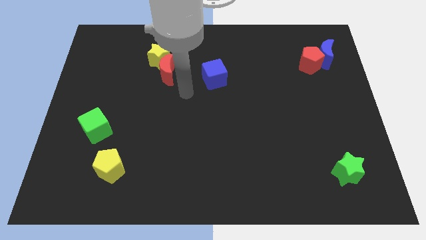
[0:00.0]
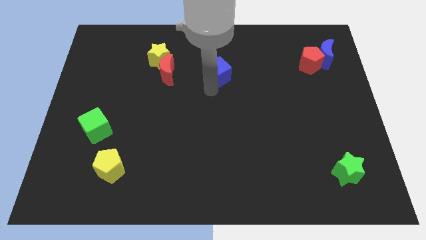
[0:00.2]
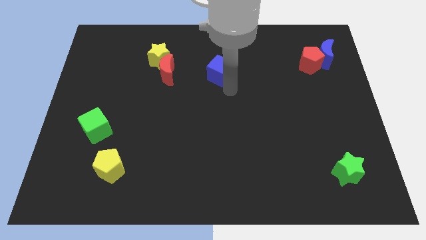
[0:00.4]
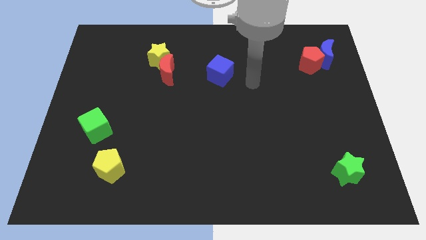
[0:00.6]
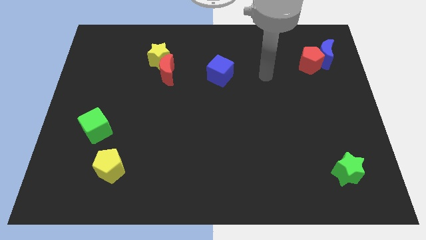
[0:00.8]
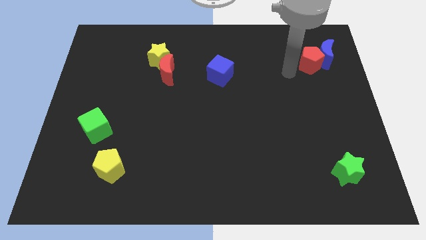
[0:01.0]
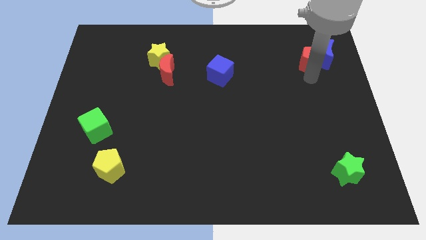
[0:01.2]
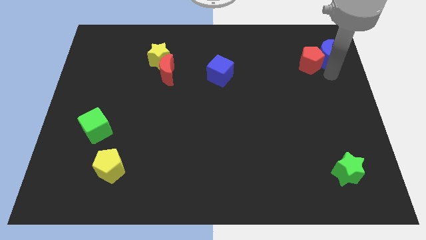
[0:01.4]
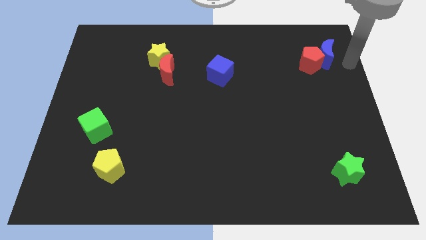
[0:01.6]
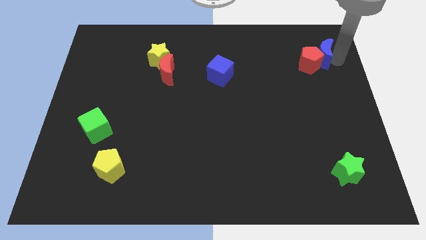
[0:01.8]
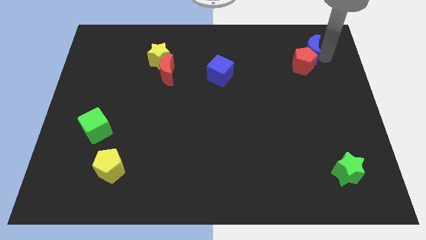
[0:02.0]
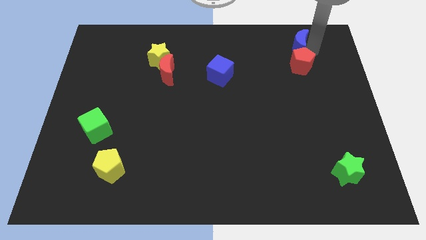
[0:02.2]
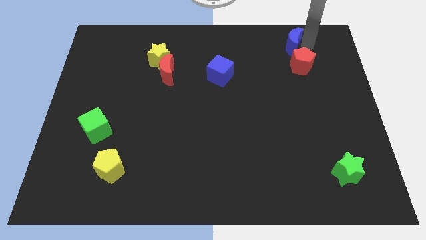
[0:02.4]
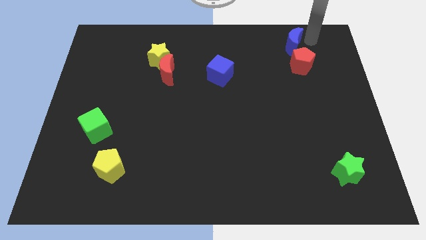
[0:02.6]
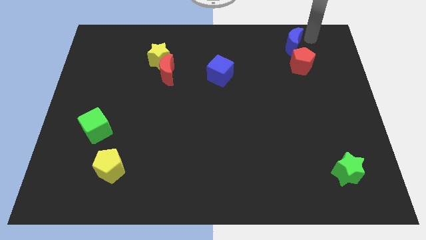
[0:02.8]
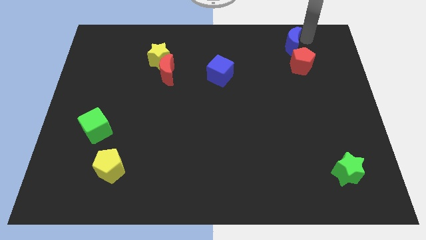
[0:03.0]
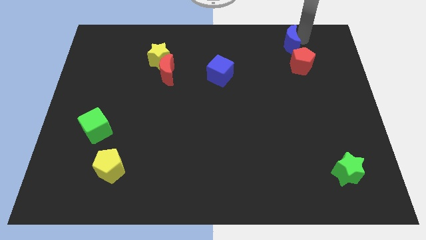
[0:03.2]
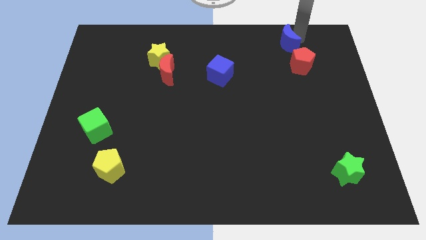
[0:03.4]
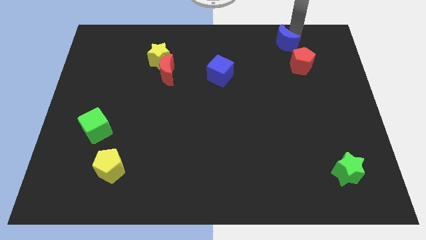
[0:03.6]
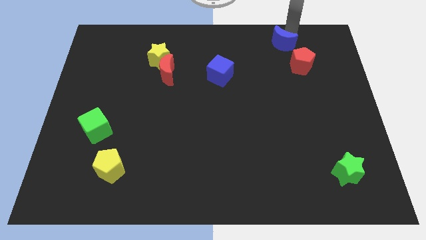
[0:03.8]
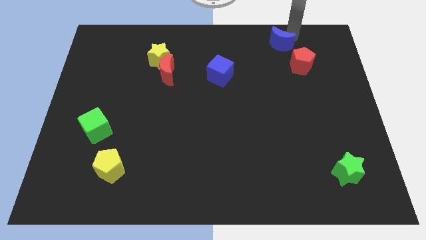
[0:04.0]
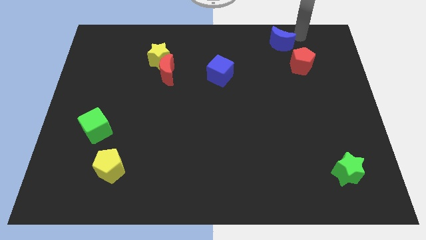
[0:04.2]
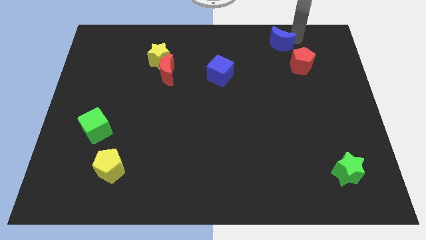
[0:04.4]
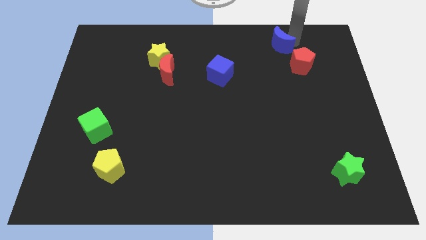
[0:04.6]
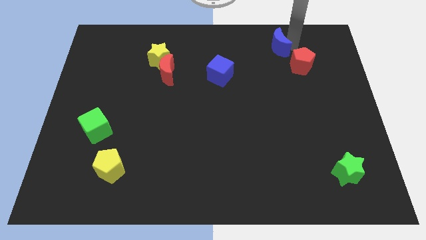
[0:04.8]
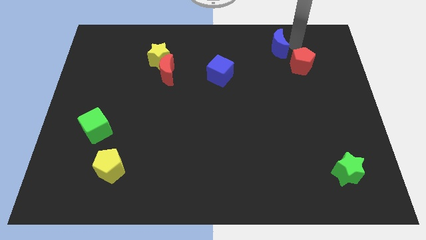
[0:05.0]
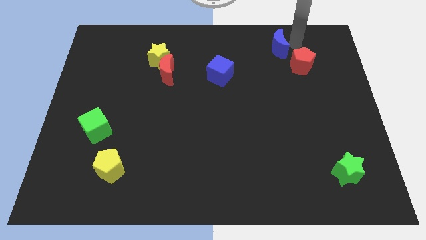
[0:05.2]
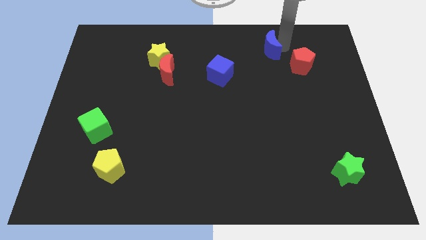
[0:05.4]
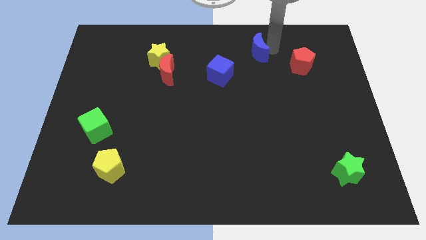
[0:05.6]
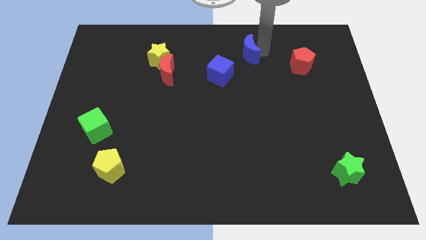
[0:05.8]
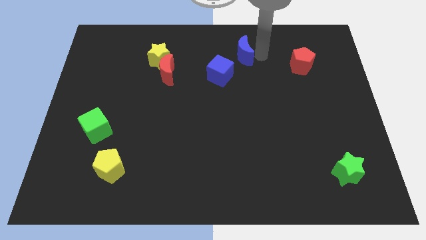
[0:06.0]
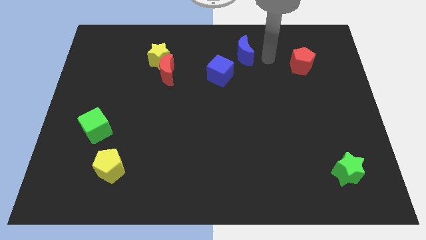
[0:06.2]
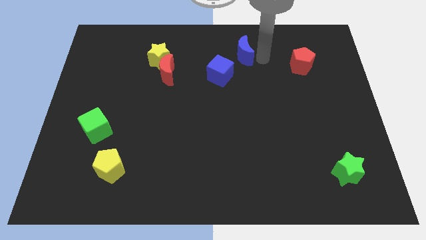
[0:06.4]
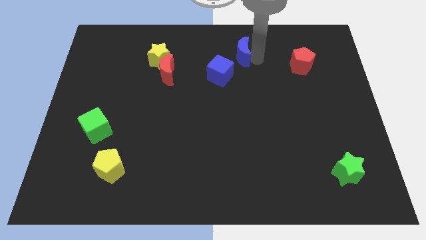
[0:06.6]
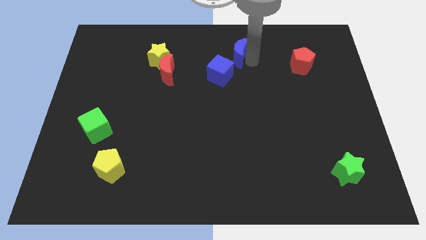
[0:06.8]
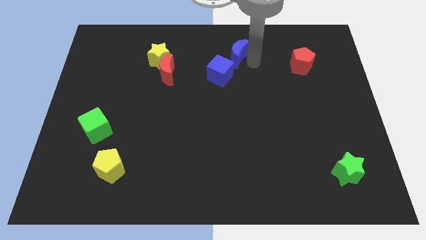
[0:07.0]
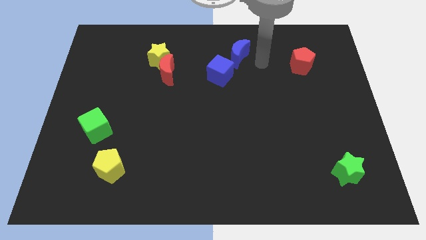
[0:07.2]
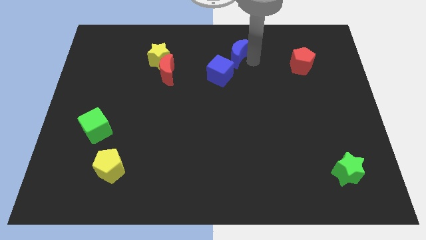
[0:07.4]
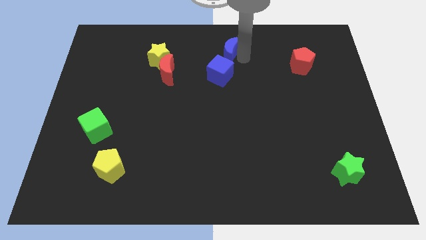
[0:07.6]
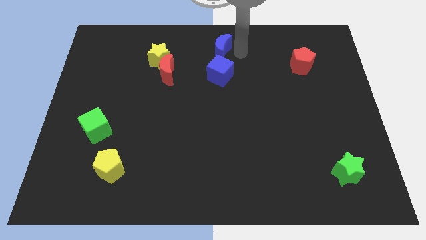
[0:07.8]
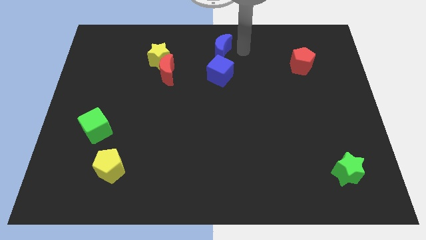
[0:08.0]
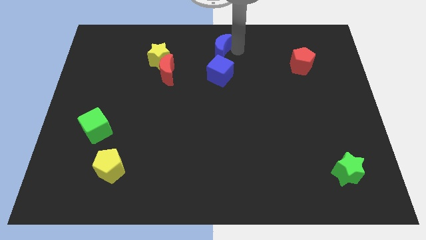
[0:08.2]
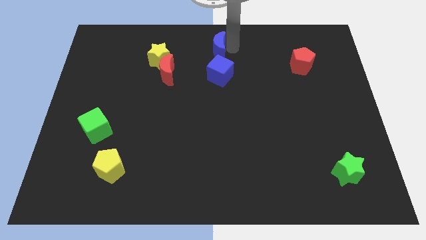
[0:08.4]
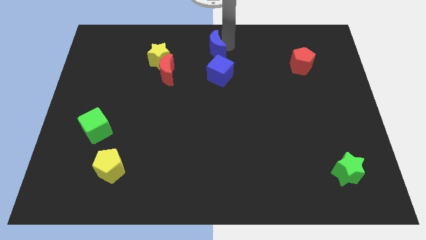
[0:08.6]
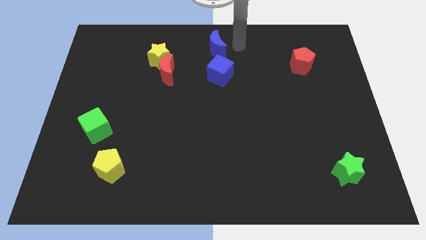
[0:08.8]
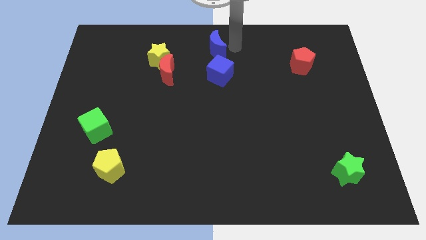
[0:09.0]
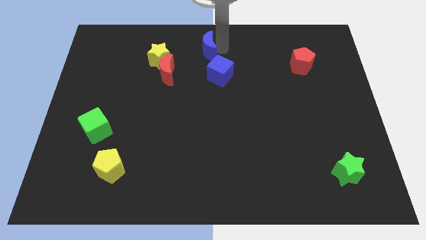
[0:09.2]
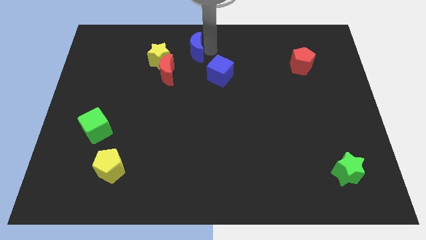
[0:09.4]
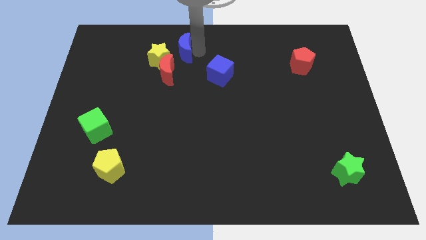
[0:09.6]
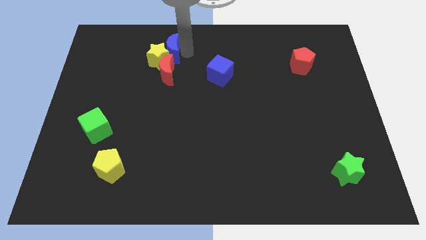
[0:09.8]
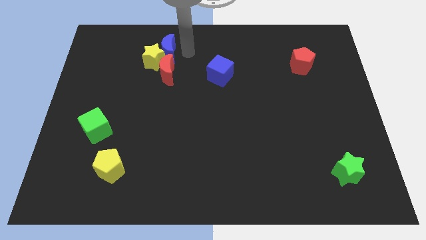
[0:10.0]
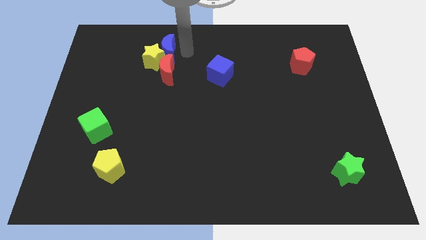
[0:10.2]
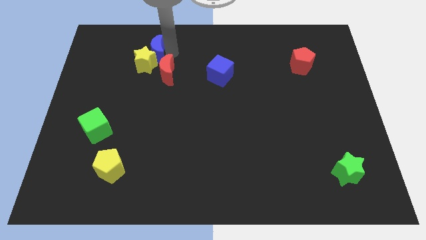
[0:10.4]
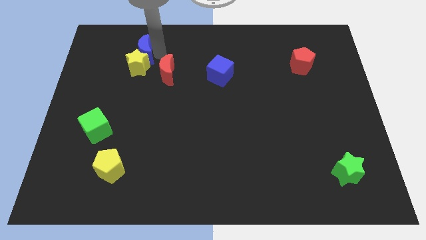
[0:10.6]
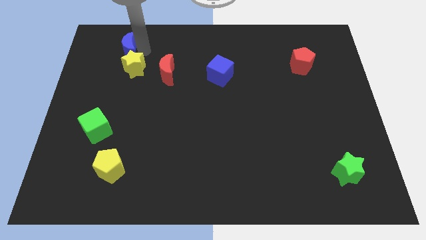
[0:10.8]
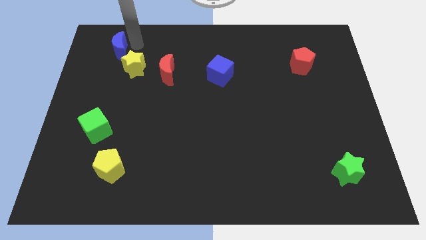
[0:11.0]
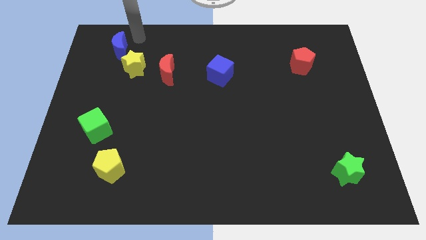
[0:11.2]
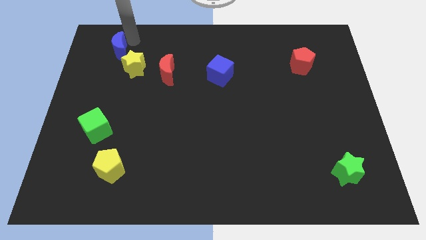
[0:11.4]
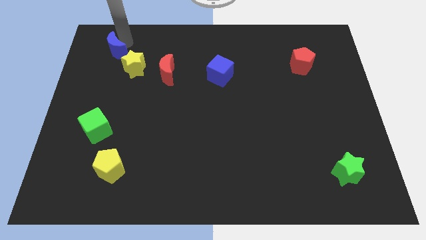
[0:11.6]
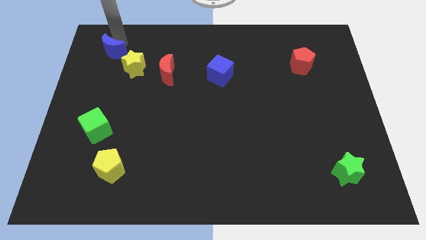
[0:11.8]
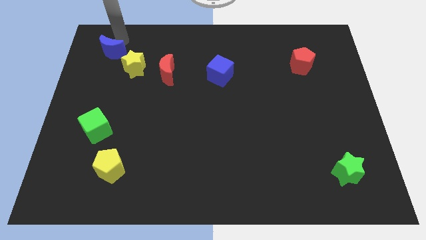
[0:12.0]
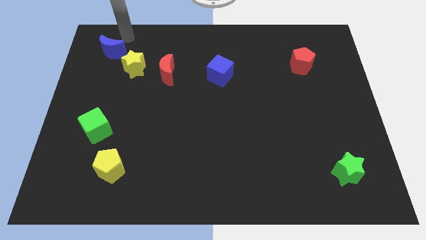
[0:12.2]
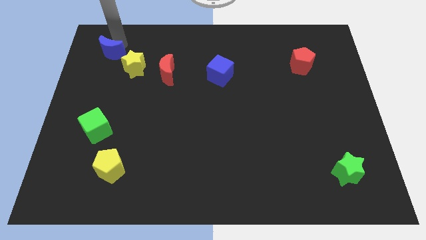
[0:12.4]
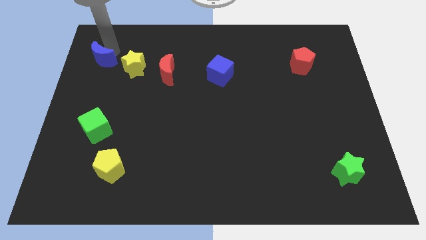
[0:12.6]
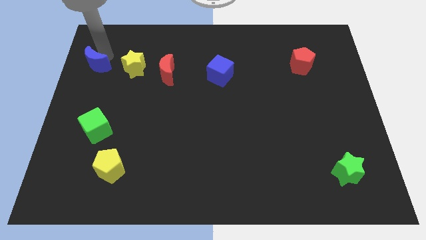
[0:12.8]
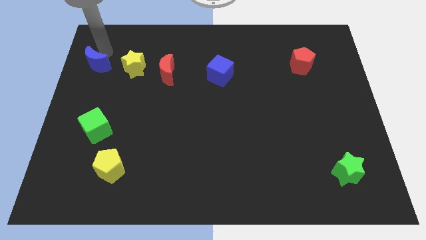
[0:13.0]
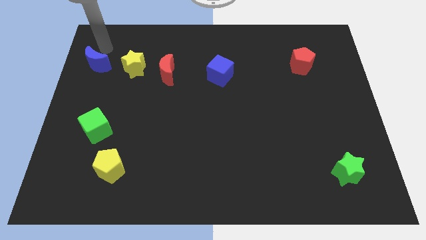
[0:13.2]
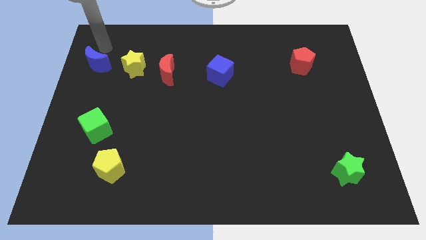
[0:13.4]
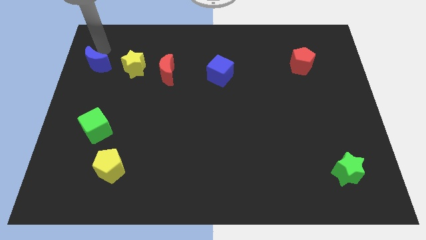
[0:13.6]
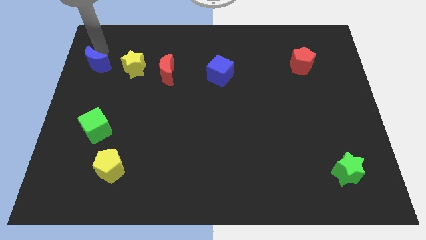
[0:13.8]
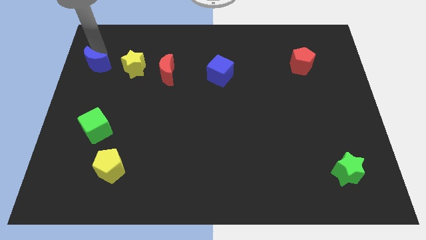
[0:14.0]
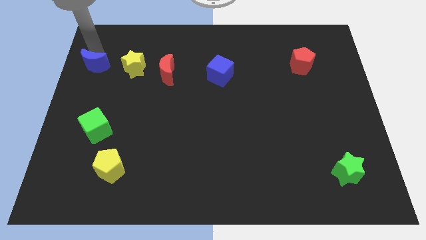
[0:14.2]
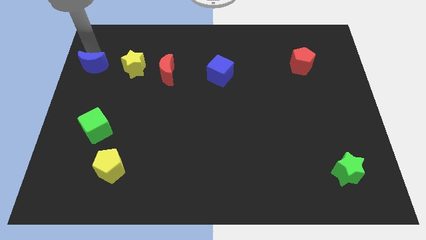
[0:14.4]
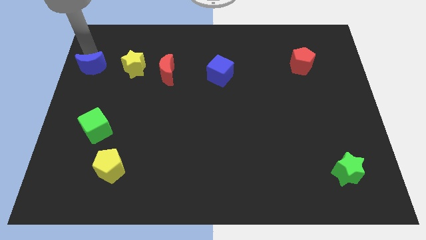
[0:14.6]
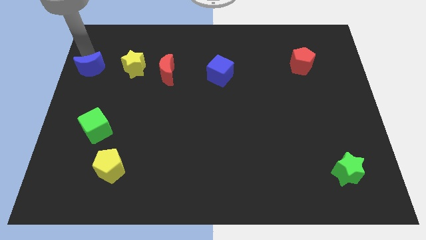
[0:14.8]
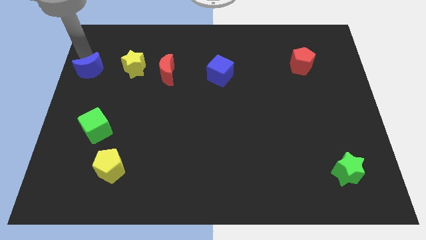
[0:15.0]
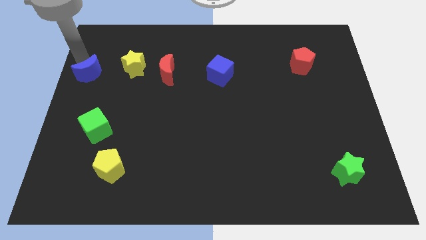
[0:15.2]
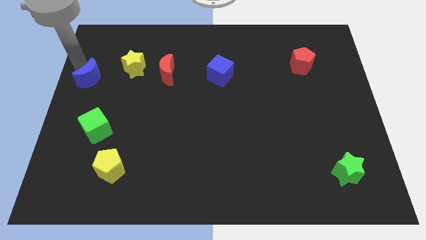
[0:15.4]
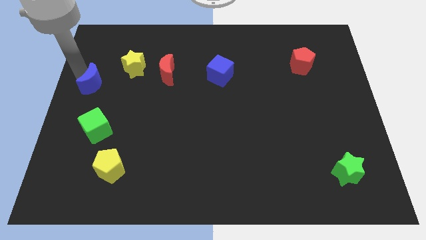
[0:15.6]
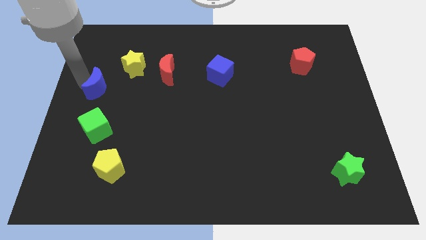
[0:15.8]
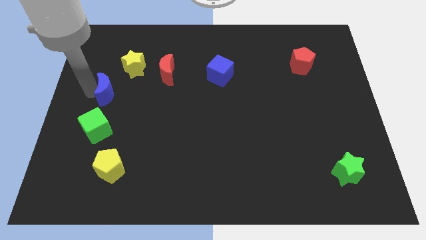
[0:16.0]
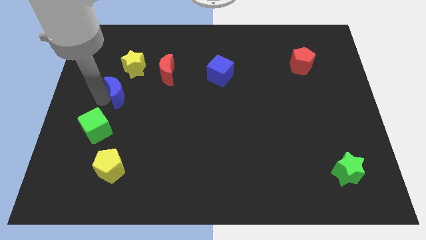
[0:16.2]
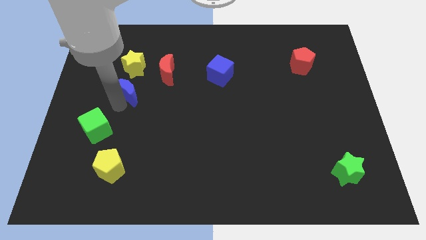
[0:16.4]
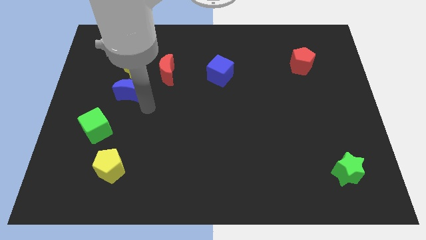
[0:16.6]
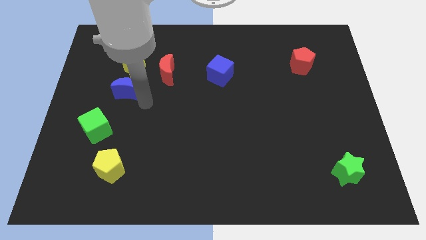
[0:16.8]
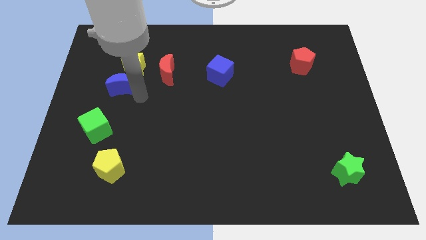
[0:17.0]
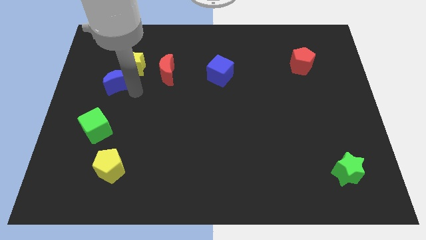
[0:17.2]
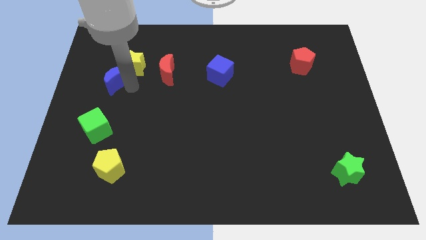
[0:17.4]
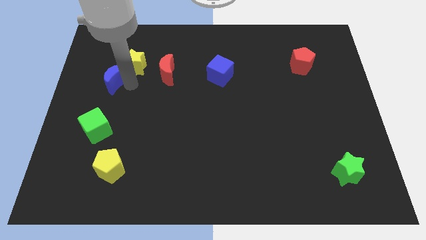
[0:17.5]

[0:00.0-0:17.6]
slide the blue moon just left of the yellow star
